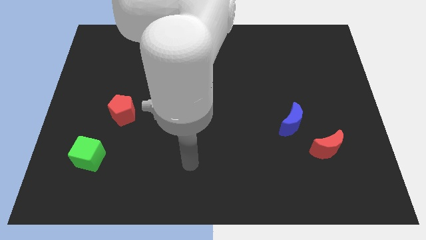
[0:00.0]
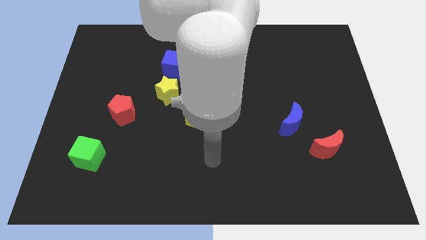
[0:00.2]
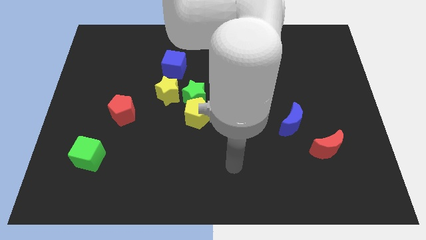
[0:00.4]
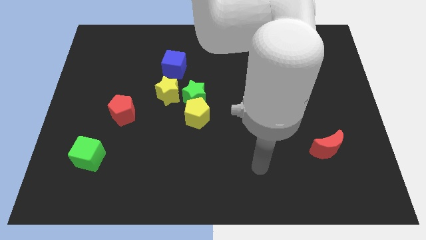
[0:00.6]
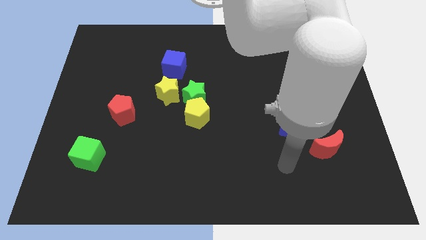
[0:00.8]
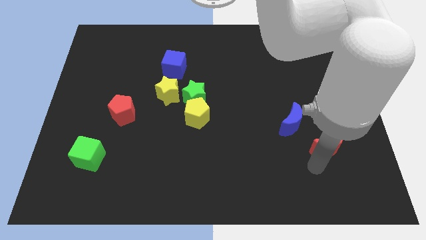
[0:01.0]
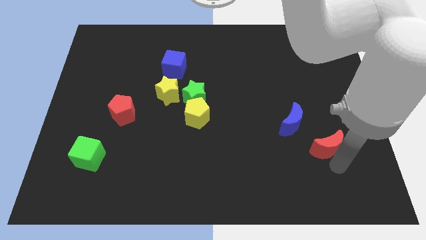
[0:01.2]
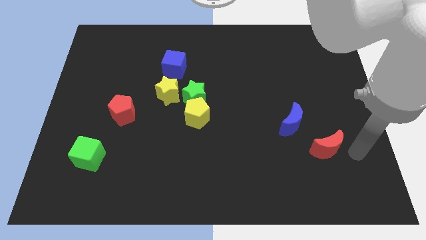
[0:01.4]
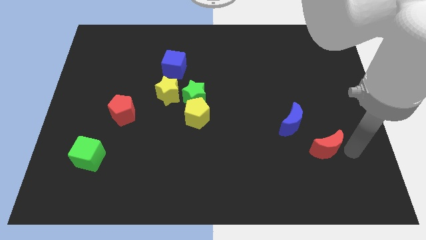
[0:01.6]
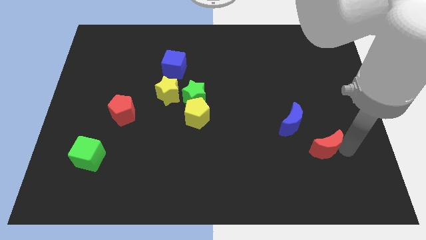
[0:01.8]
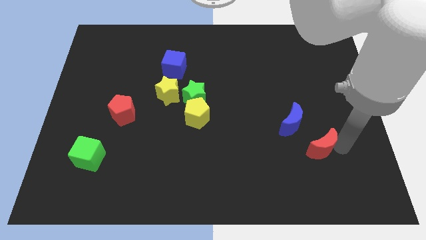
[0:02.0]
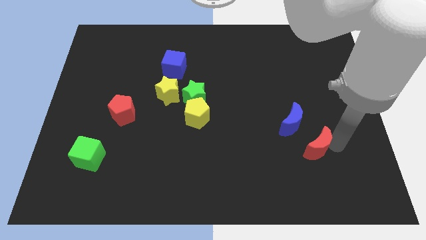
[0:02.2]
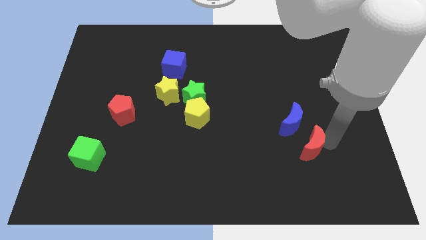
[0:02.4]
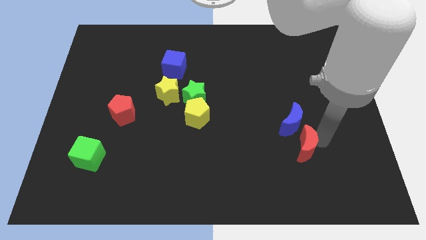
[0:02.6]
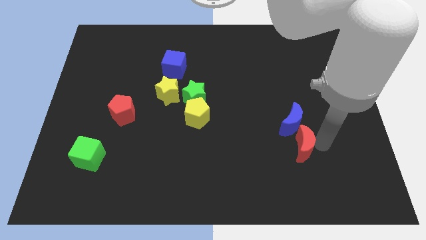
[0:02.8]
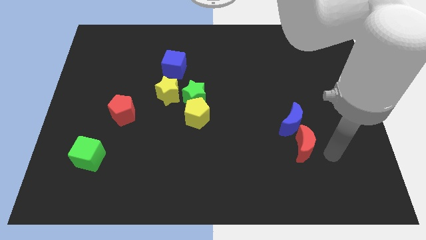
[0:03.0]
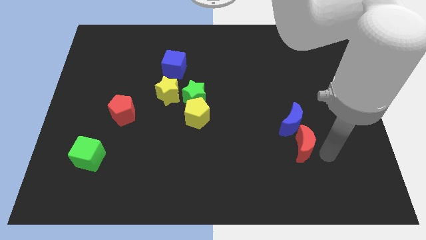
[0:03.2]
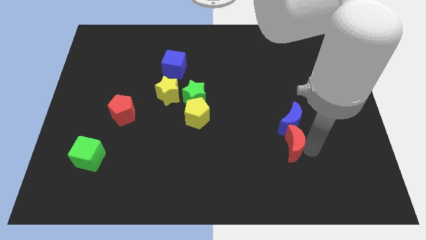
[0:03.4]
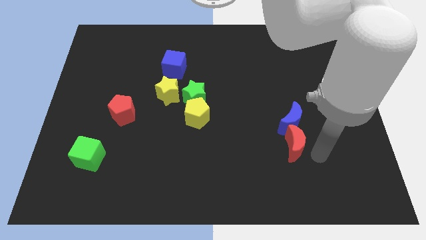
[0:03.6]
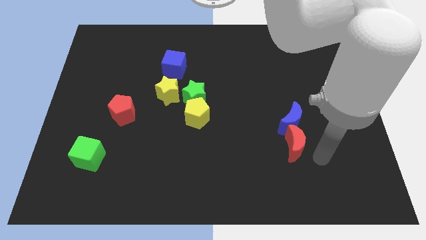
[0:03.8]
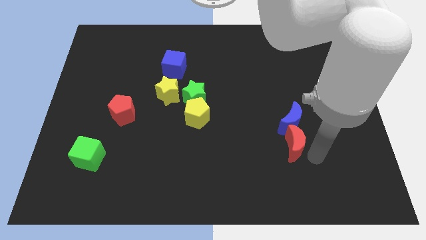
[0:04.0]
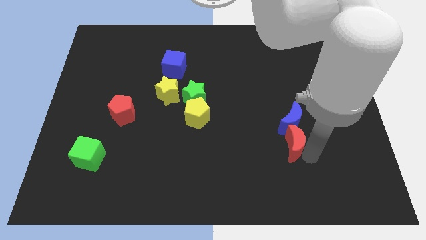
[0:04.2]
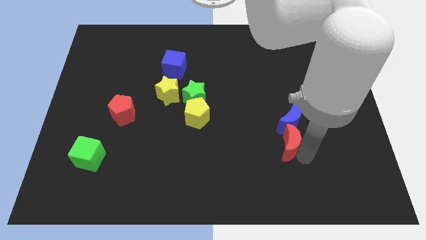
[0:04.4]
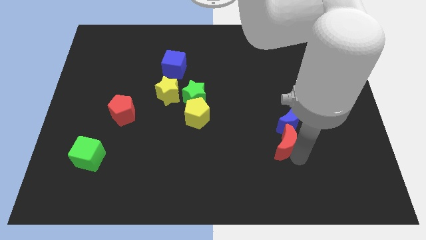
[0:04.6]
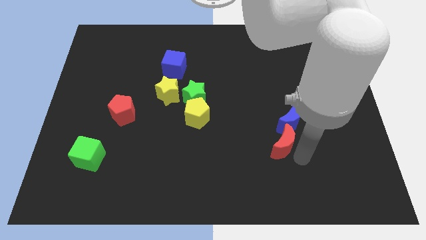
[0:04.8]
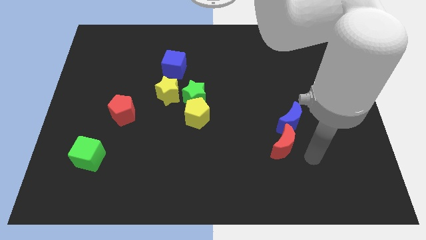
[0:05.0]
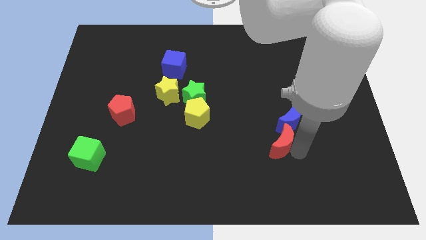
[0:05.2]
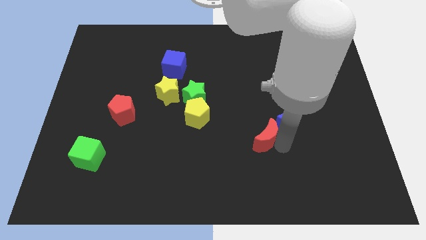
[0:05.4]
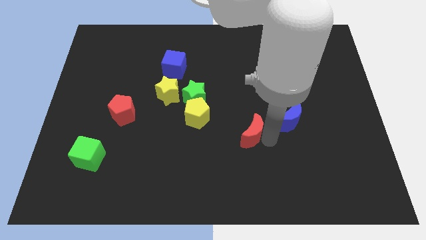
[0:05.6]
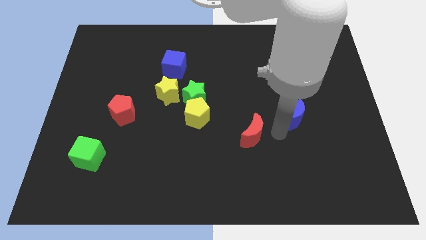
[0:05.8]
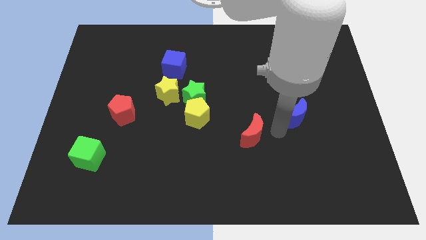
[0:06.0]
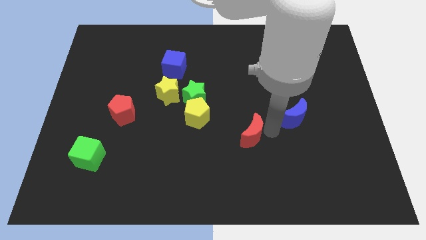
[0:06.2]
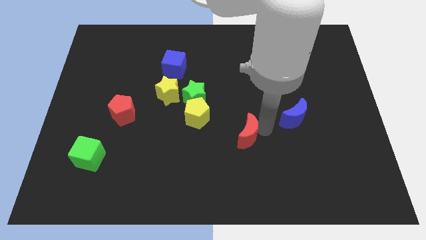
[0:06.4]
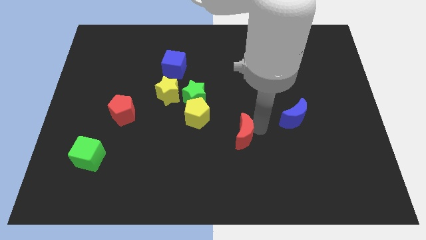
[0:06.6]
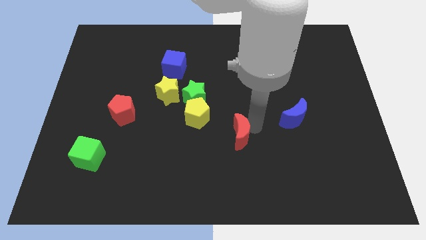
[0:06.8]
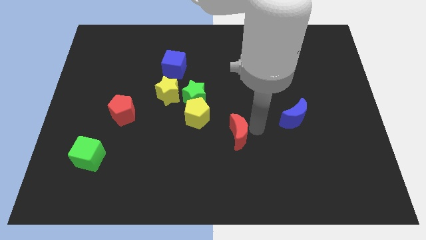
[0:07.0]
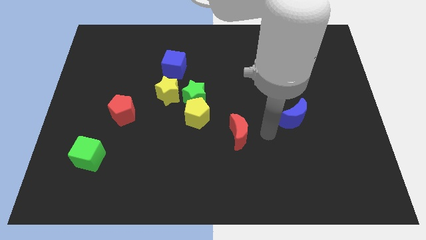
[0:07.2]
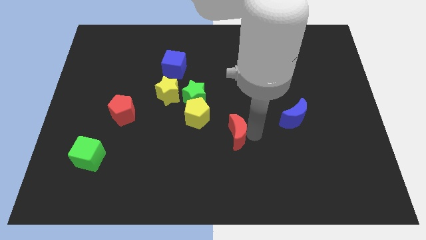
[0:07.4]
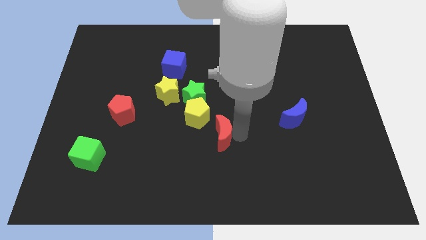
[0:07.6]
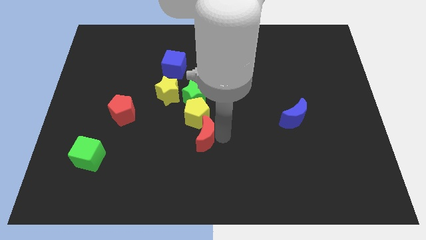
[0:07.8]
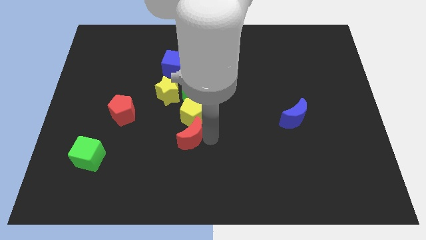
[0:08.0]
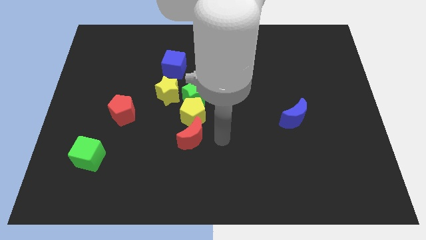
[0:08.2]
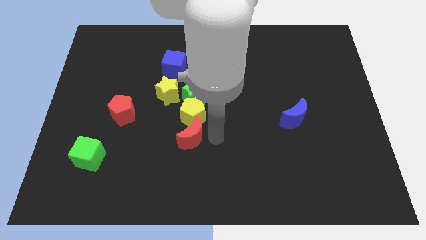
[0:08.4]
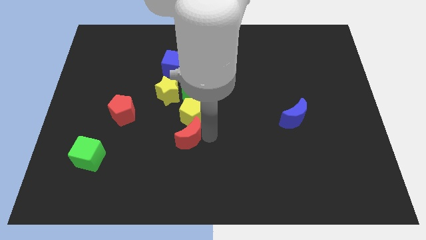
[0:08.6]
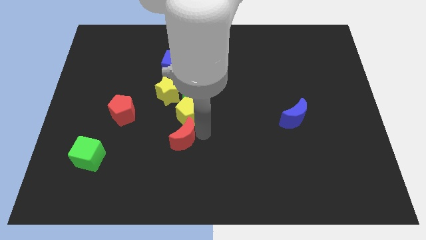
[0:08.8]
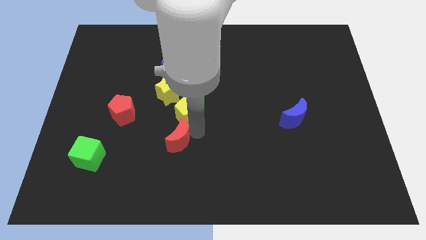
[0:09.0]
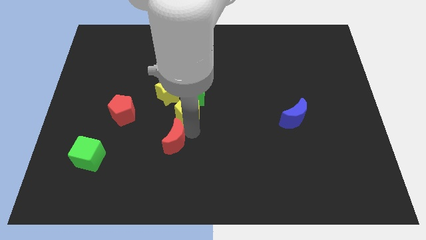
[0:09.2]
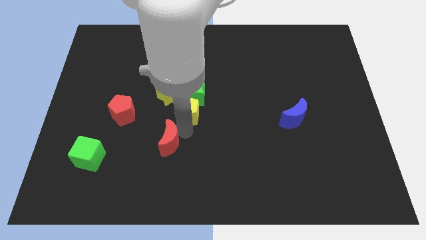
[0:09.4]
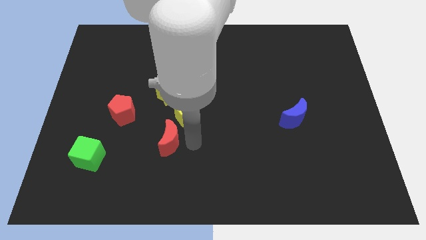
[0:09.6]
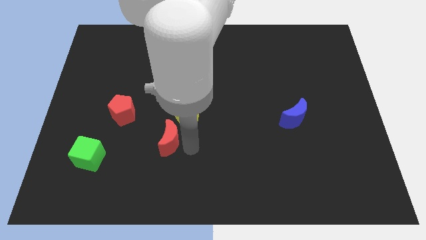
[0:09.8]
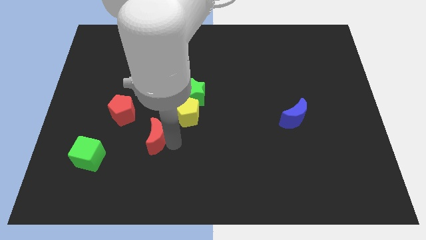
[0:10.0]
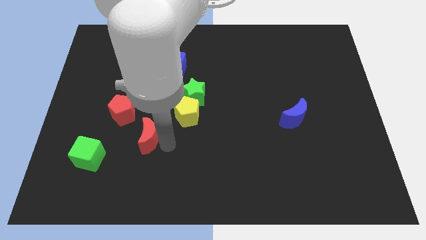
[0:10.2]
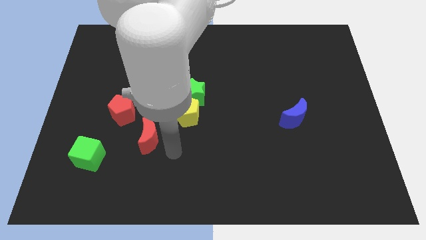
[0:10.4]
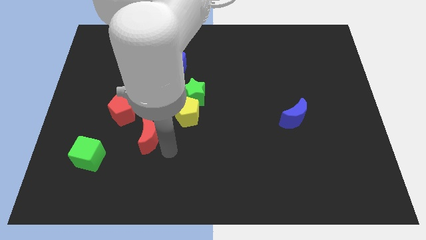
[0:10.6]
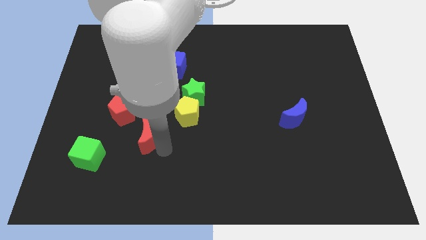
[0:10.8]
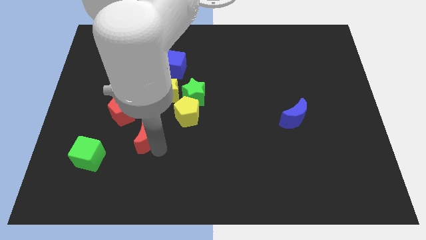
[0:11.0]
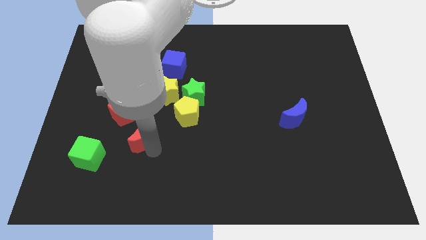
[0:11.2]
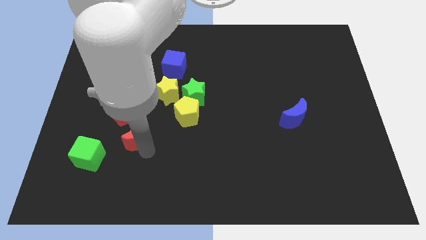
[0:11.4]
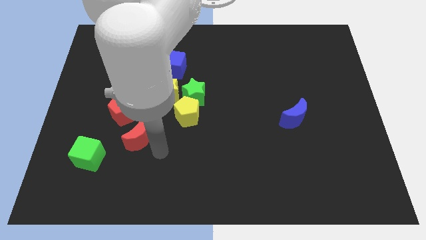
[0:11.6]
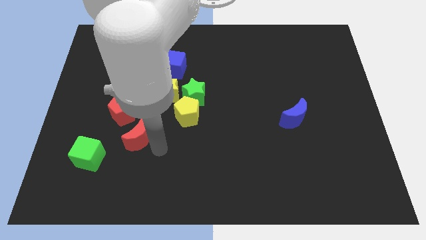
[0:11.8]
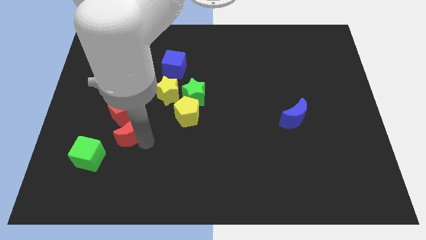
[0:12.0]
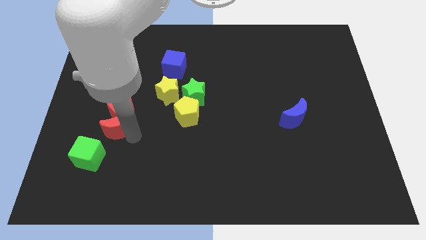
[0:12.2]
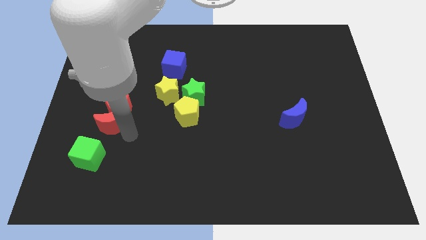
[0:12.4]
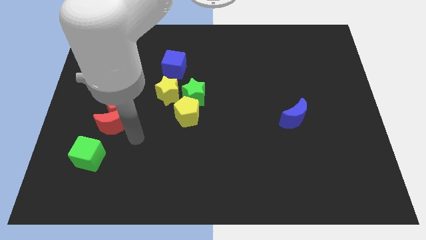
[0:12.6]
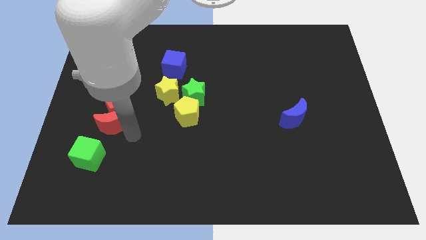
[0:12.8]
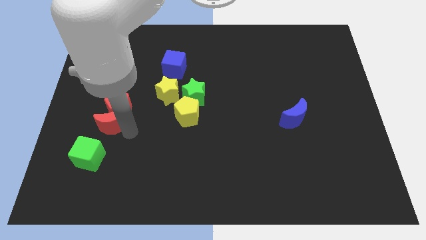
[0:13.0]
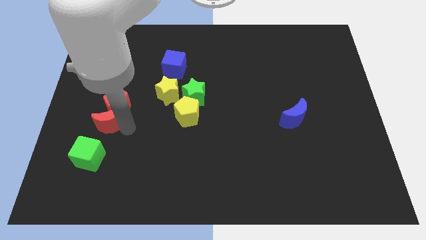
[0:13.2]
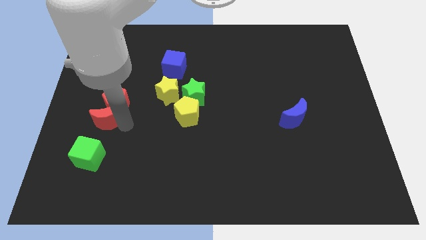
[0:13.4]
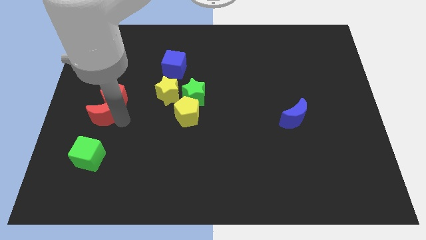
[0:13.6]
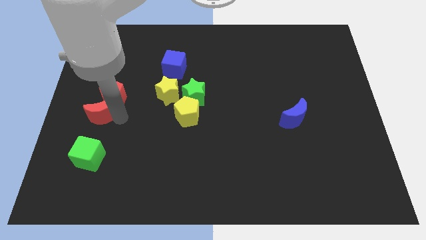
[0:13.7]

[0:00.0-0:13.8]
put the red moon to the left side

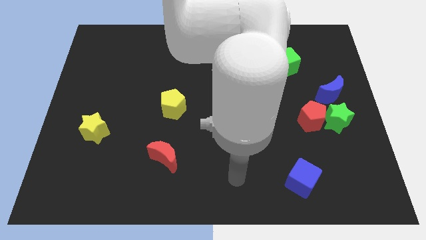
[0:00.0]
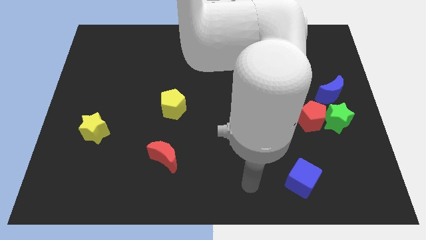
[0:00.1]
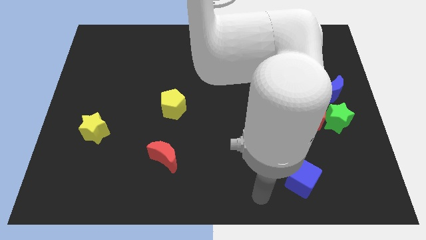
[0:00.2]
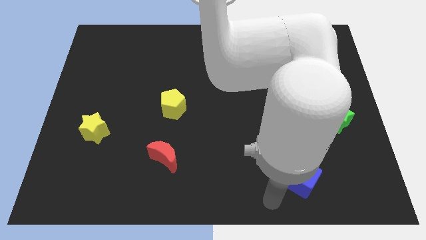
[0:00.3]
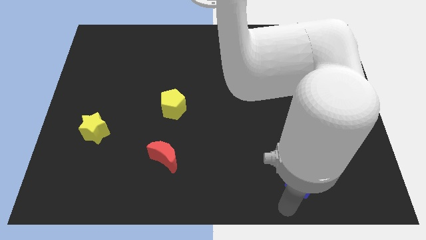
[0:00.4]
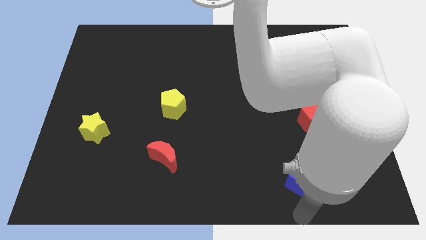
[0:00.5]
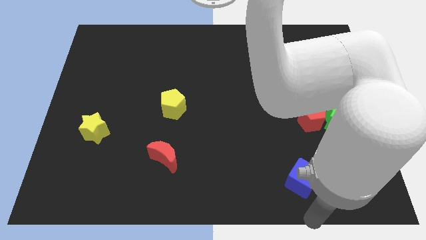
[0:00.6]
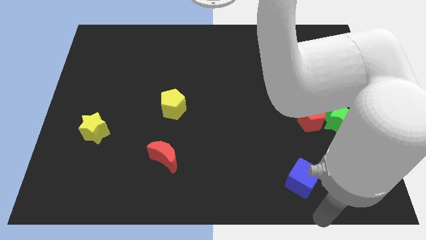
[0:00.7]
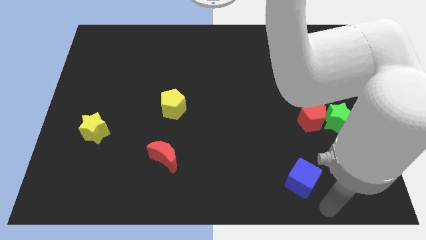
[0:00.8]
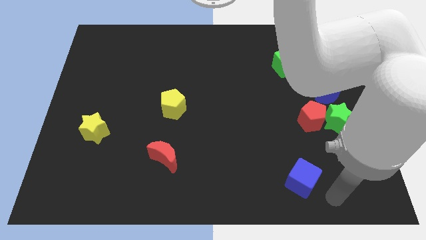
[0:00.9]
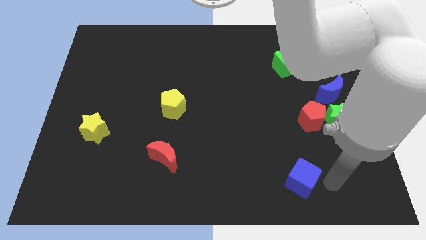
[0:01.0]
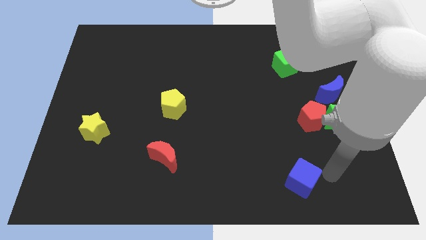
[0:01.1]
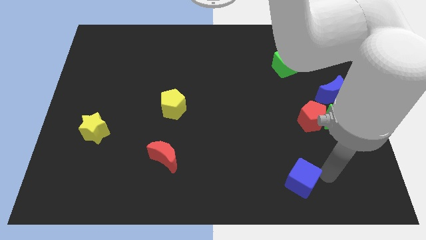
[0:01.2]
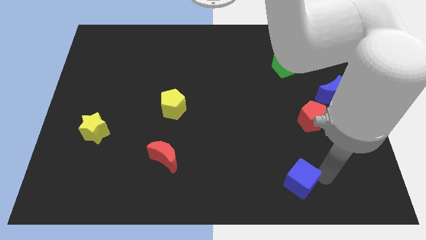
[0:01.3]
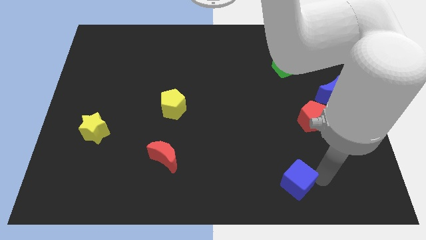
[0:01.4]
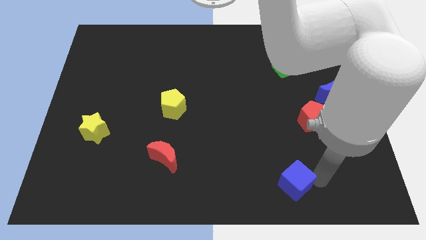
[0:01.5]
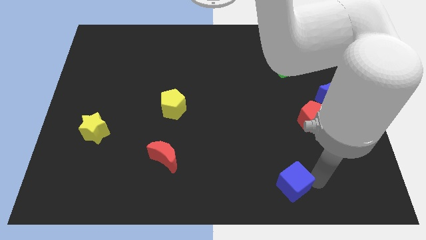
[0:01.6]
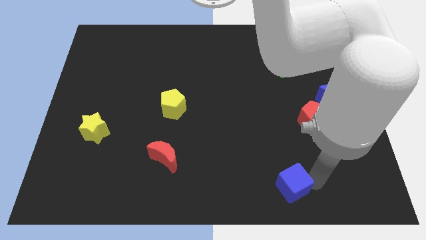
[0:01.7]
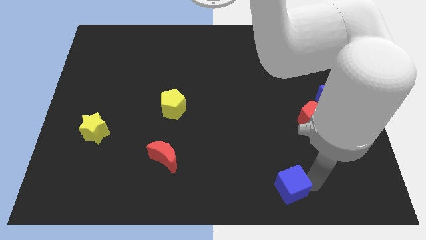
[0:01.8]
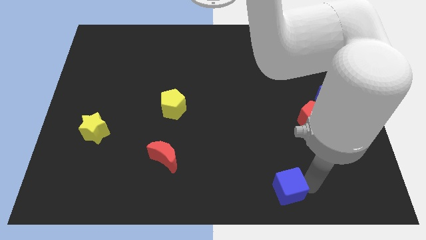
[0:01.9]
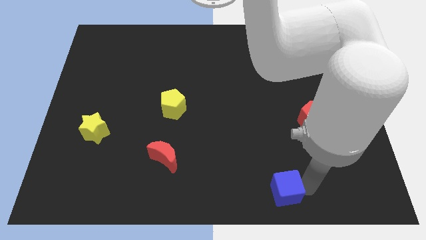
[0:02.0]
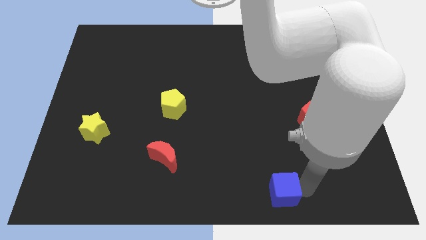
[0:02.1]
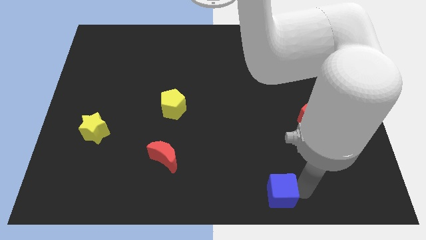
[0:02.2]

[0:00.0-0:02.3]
move the blue cube to the bottom side
